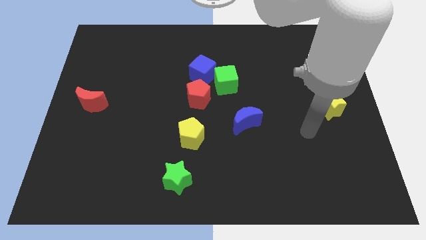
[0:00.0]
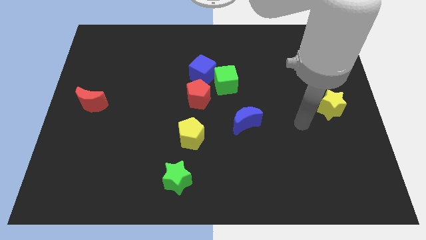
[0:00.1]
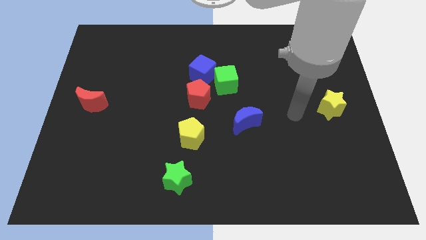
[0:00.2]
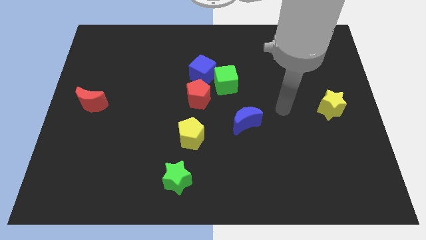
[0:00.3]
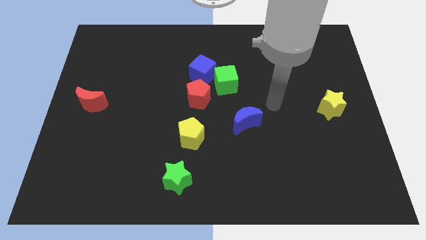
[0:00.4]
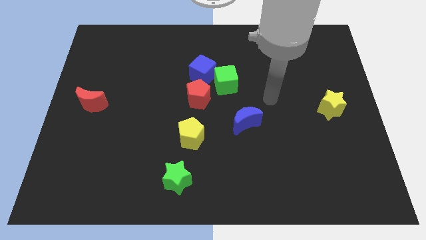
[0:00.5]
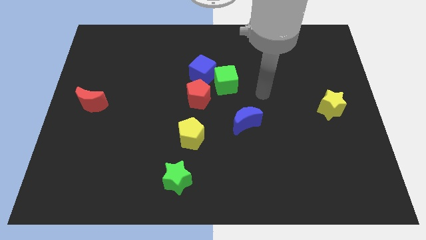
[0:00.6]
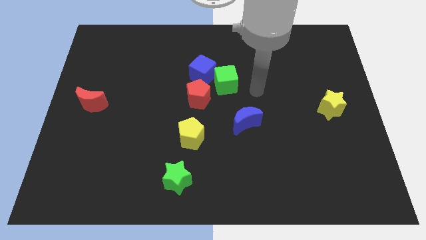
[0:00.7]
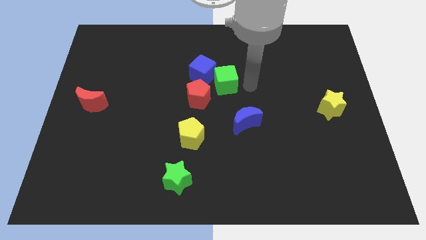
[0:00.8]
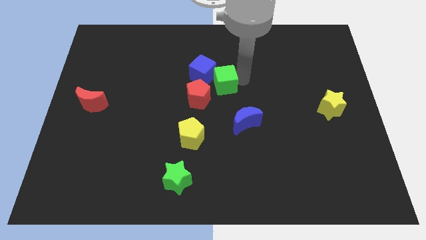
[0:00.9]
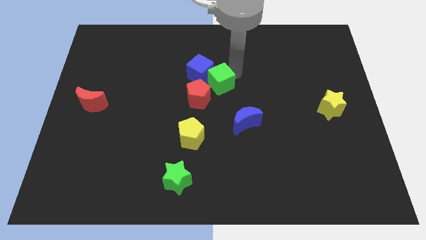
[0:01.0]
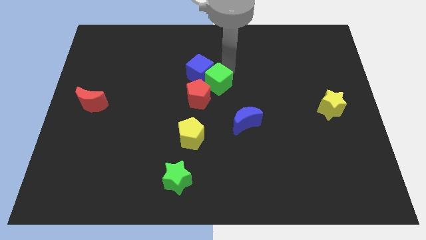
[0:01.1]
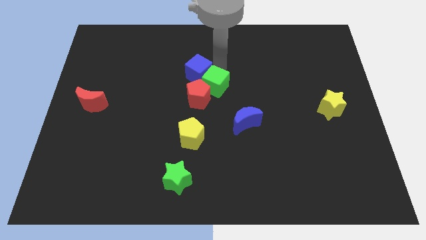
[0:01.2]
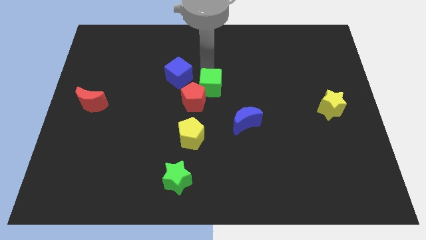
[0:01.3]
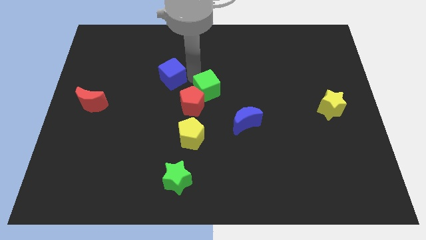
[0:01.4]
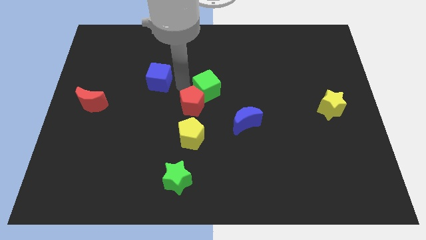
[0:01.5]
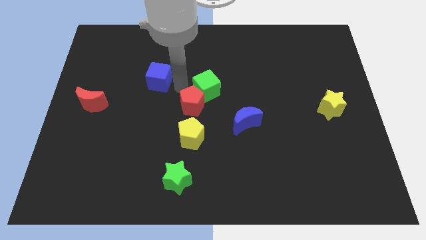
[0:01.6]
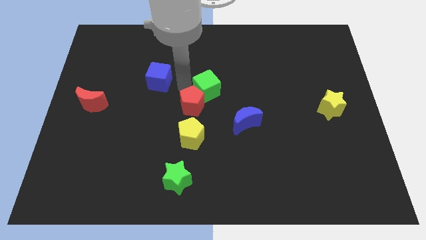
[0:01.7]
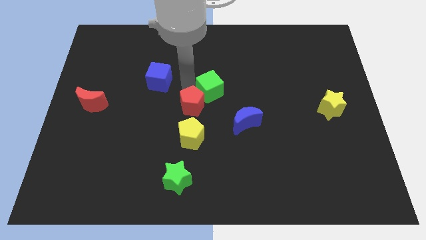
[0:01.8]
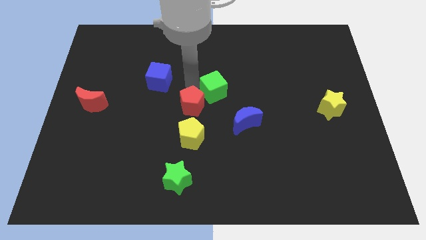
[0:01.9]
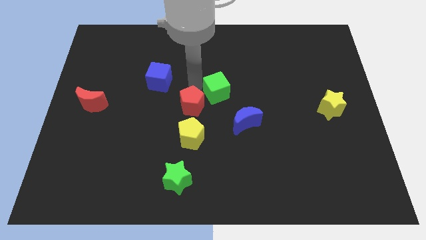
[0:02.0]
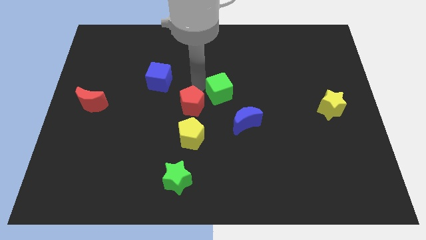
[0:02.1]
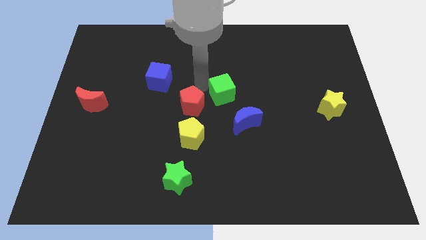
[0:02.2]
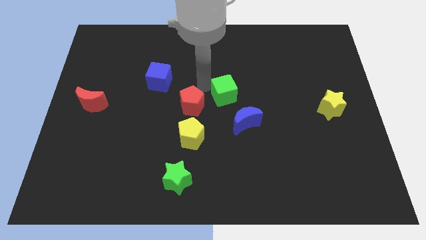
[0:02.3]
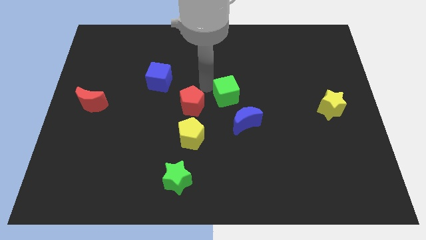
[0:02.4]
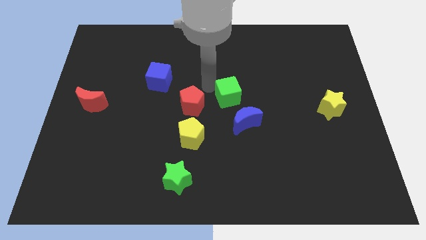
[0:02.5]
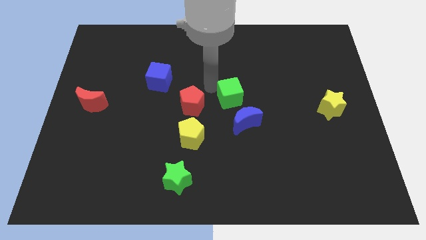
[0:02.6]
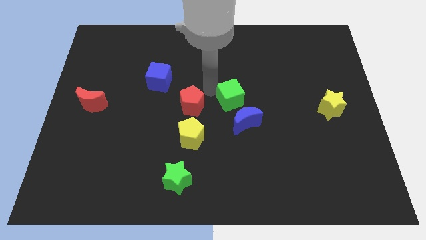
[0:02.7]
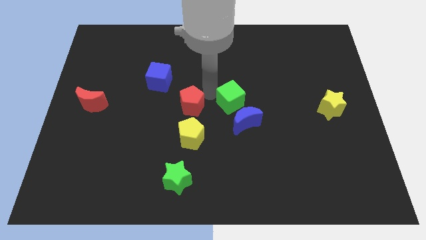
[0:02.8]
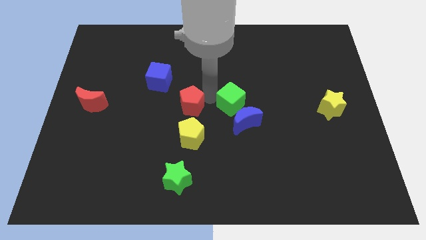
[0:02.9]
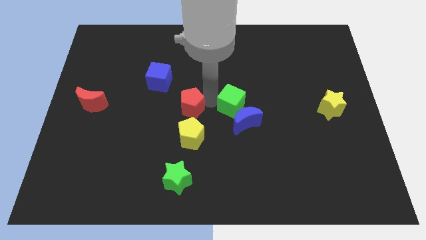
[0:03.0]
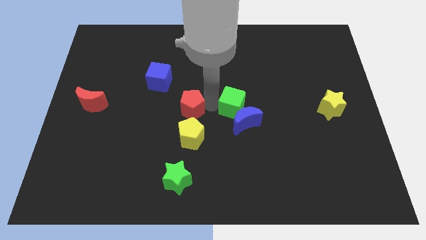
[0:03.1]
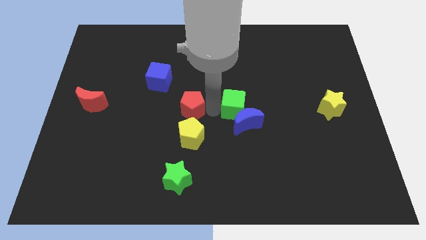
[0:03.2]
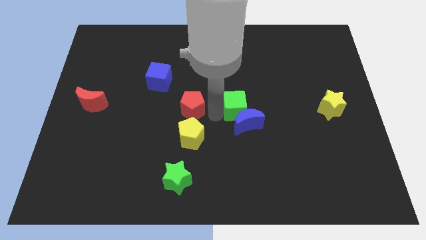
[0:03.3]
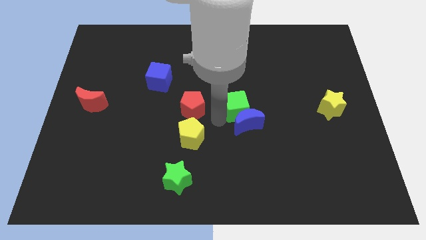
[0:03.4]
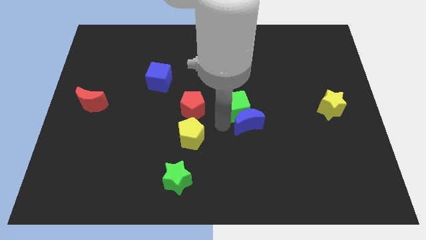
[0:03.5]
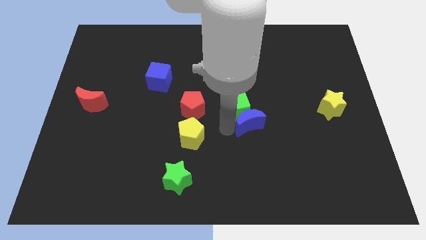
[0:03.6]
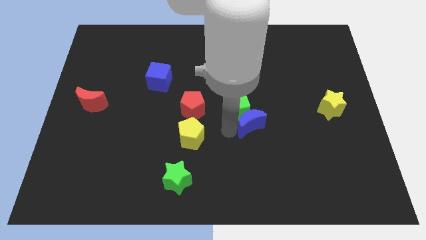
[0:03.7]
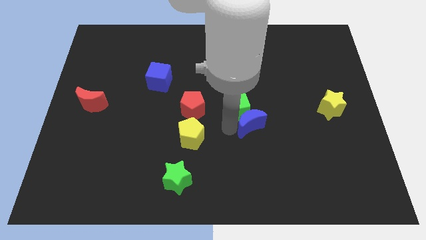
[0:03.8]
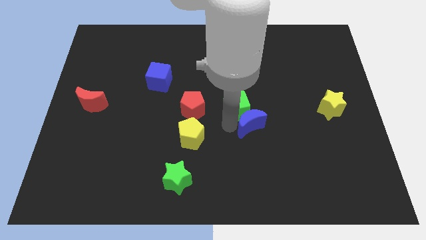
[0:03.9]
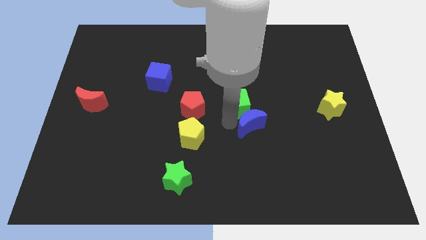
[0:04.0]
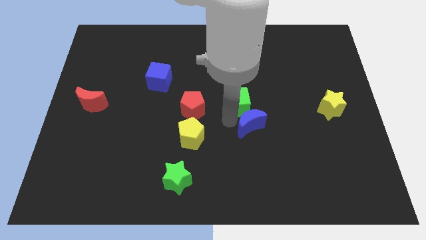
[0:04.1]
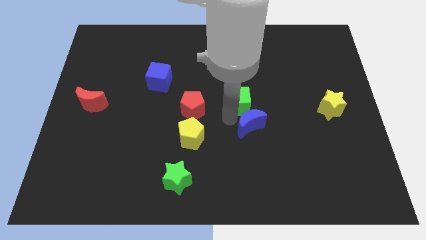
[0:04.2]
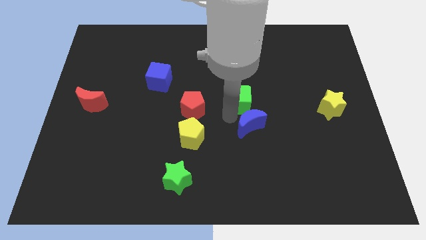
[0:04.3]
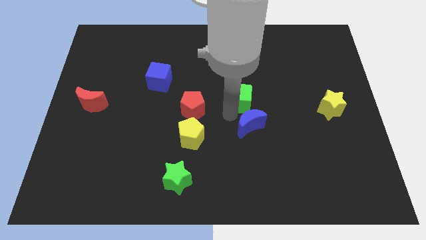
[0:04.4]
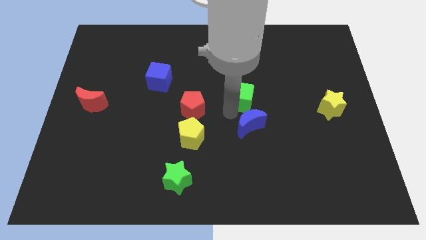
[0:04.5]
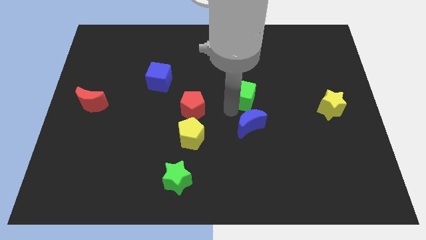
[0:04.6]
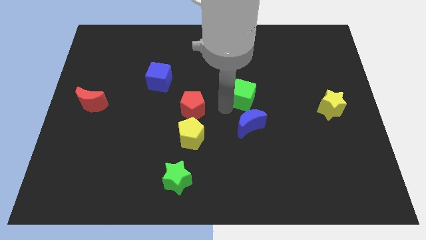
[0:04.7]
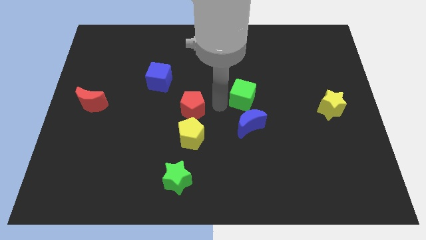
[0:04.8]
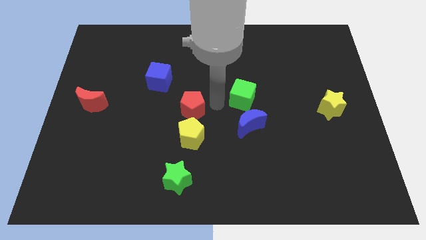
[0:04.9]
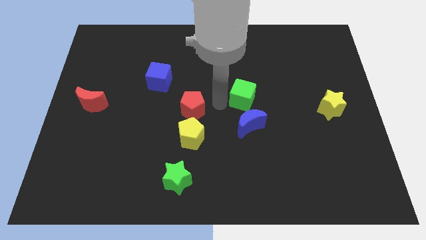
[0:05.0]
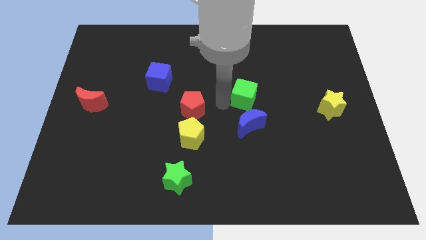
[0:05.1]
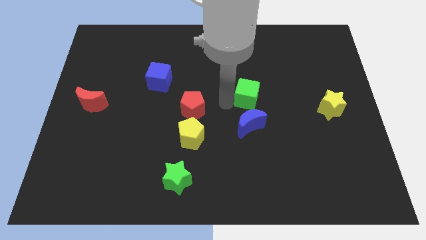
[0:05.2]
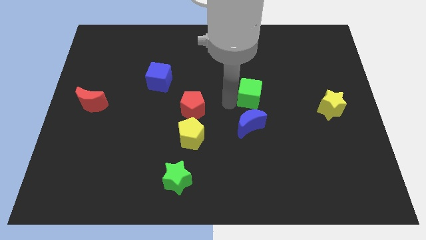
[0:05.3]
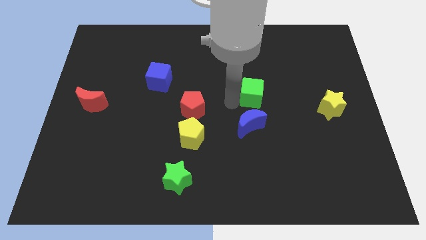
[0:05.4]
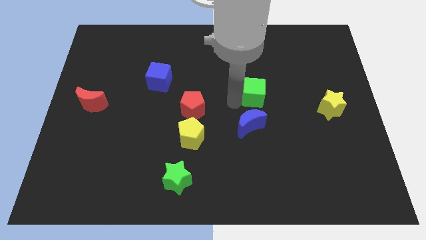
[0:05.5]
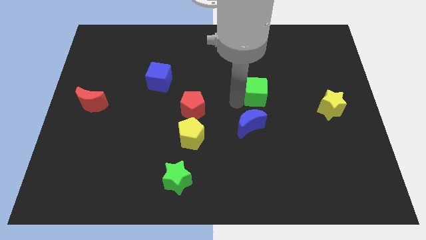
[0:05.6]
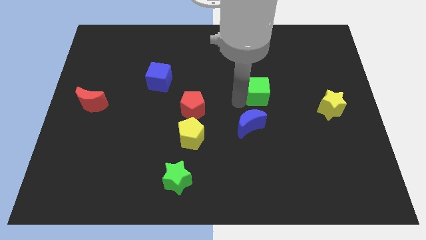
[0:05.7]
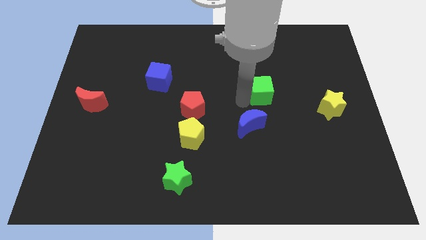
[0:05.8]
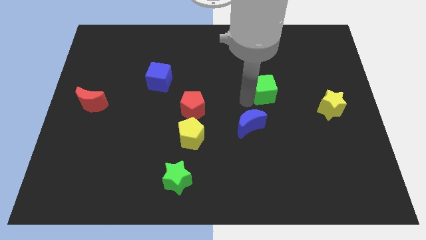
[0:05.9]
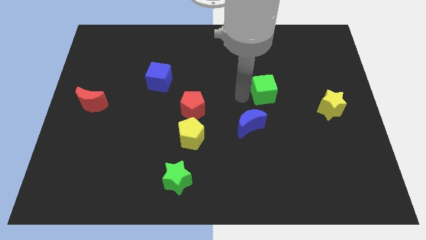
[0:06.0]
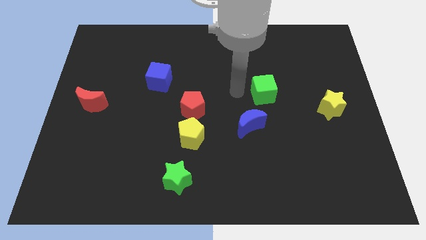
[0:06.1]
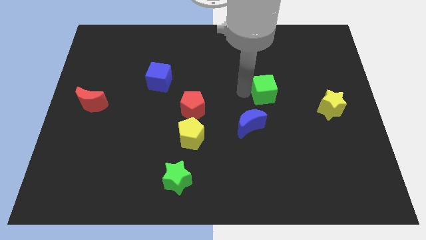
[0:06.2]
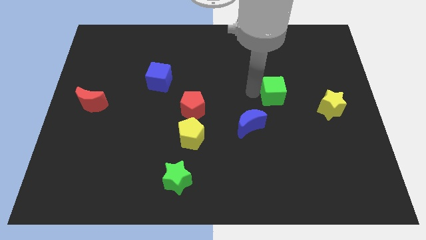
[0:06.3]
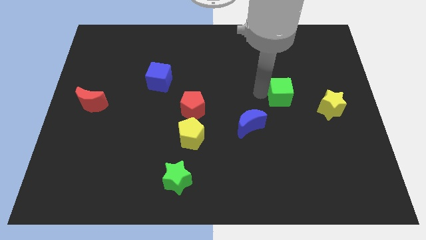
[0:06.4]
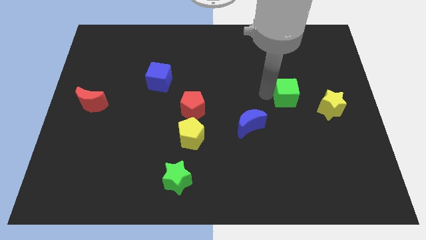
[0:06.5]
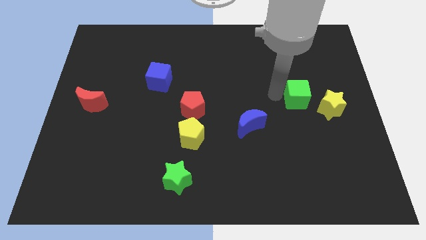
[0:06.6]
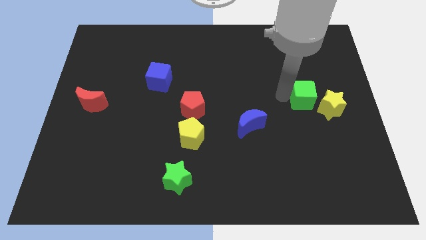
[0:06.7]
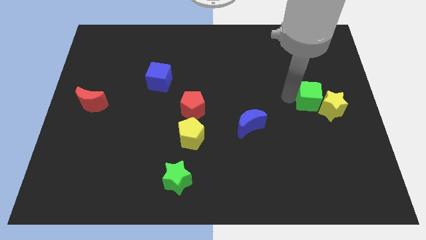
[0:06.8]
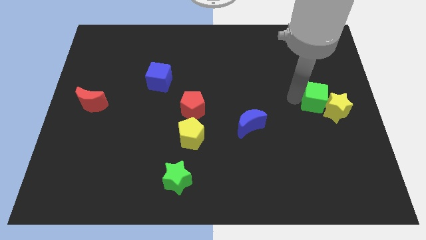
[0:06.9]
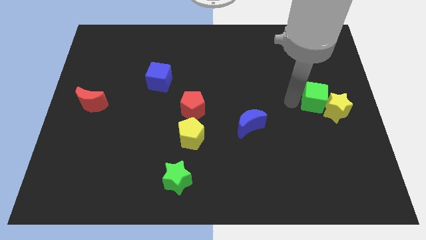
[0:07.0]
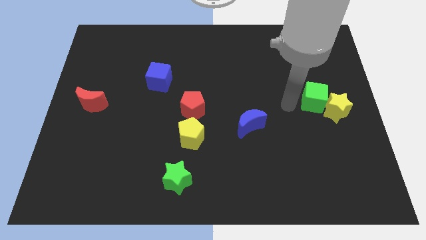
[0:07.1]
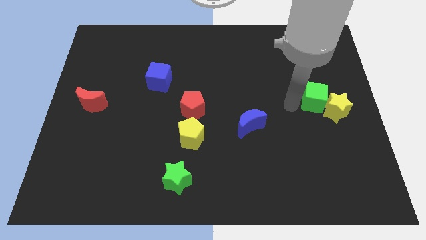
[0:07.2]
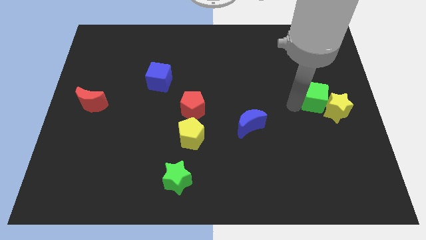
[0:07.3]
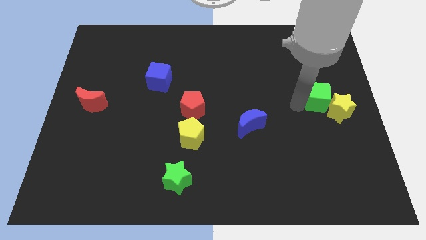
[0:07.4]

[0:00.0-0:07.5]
put the green cube to the right side
